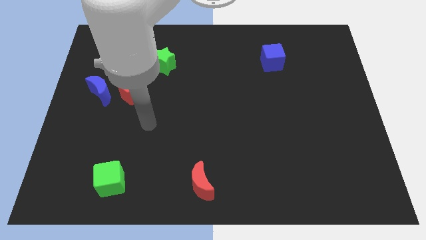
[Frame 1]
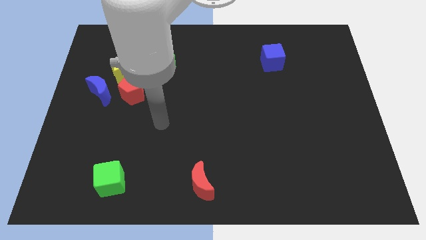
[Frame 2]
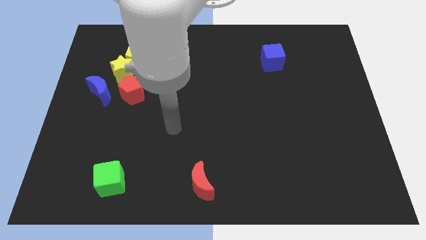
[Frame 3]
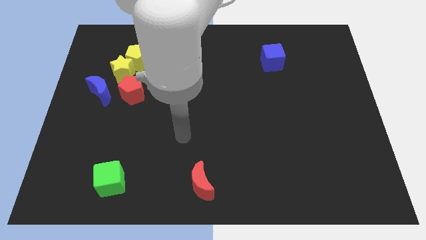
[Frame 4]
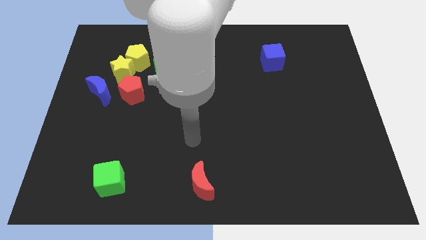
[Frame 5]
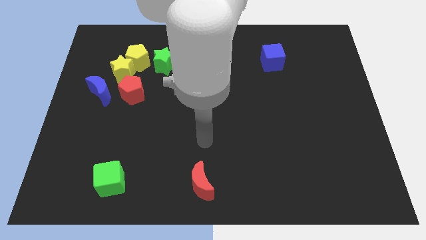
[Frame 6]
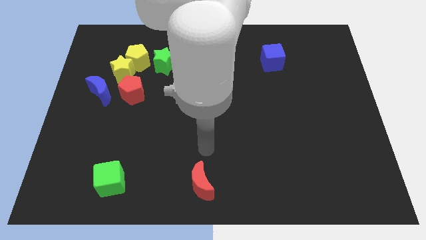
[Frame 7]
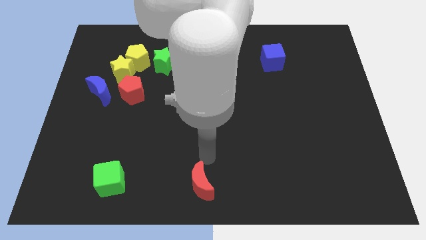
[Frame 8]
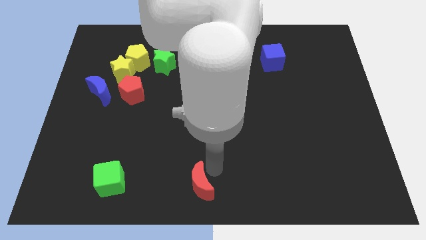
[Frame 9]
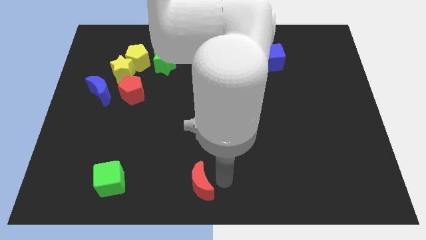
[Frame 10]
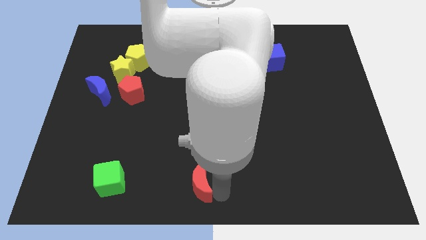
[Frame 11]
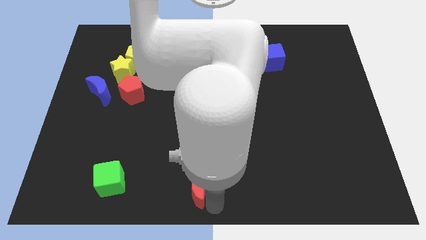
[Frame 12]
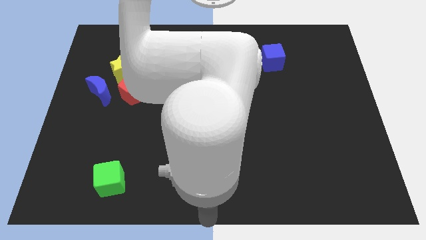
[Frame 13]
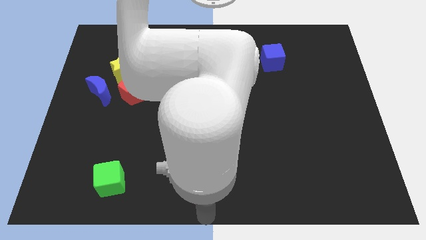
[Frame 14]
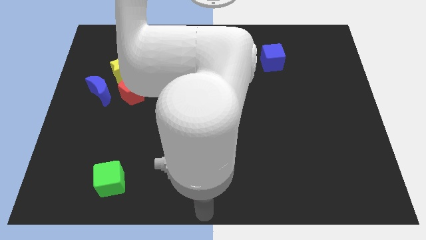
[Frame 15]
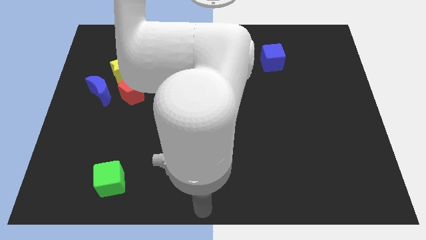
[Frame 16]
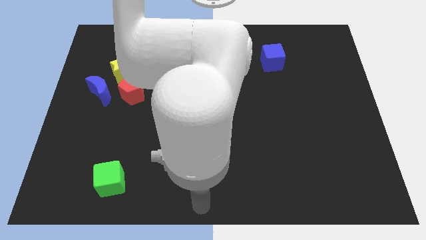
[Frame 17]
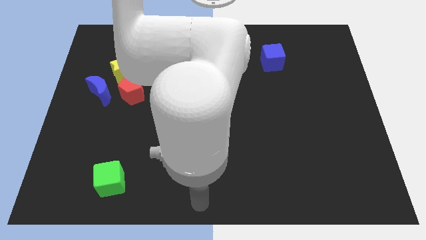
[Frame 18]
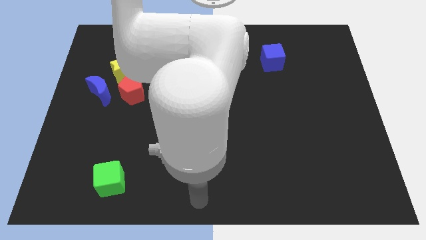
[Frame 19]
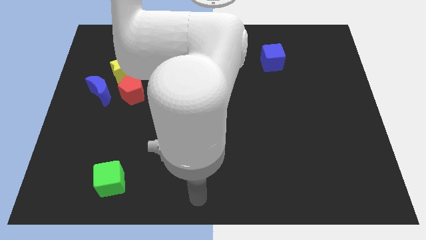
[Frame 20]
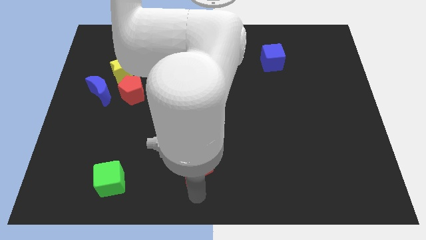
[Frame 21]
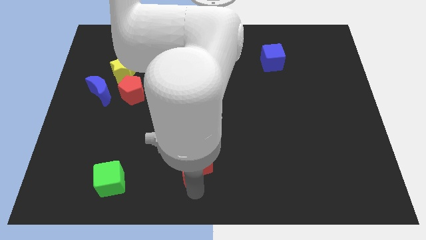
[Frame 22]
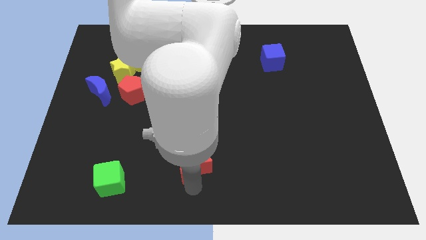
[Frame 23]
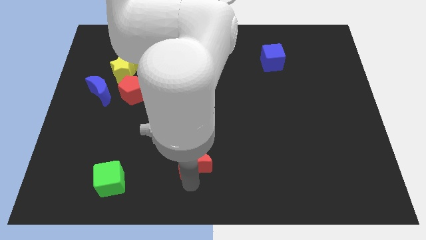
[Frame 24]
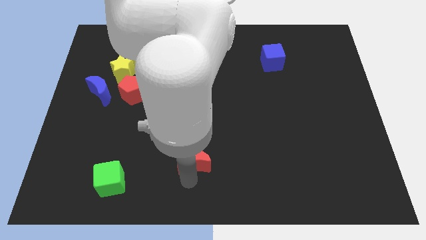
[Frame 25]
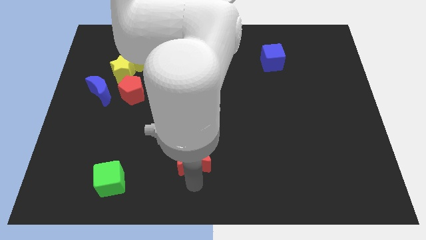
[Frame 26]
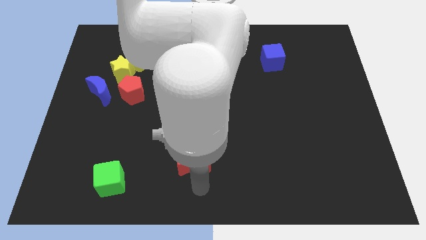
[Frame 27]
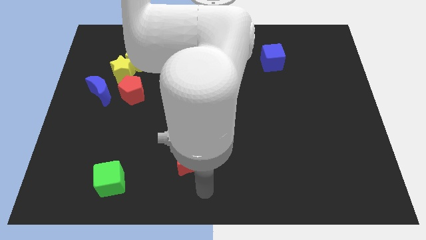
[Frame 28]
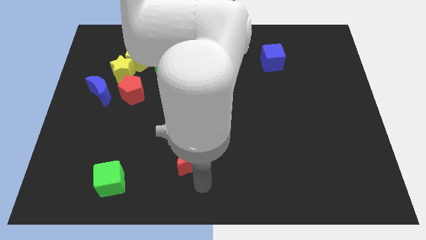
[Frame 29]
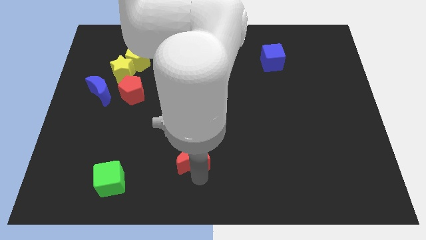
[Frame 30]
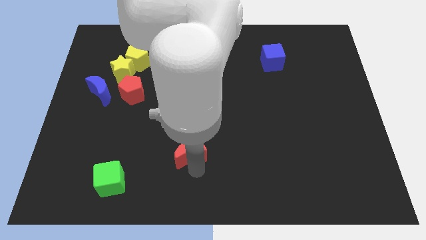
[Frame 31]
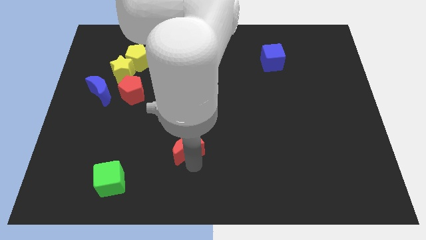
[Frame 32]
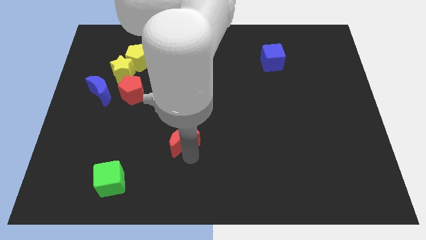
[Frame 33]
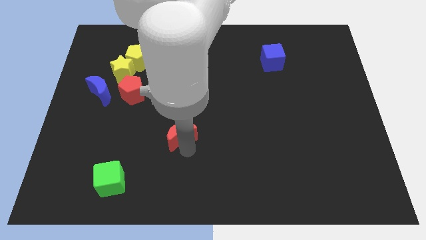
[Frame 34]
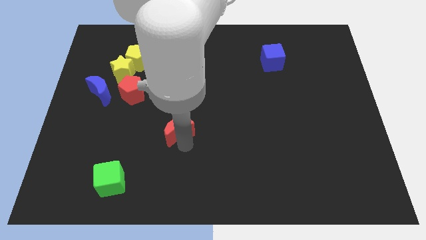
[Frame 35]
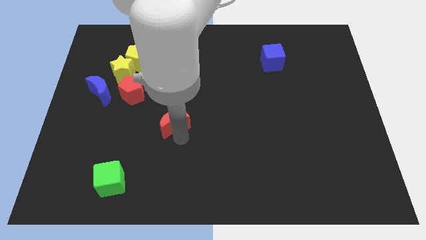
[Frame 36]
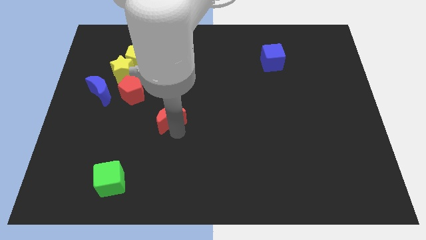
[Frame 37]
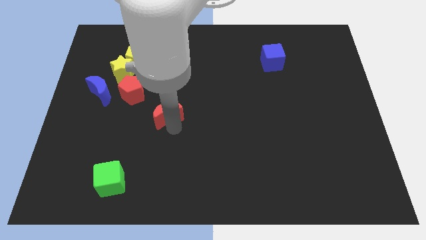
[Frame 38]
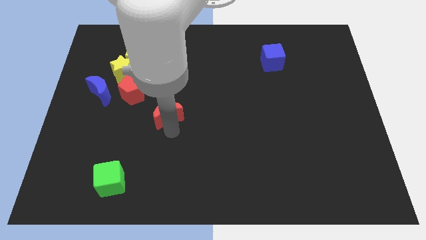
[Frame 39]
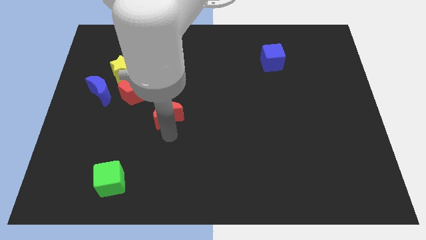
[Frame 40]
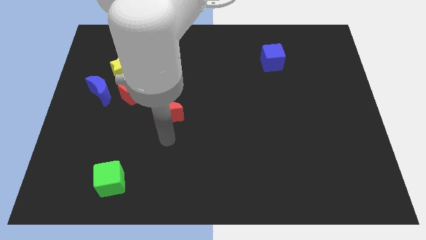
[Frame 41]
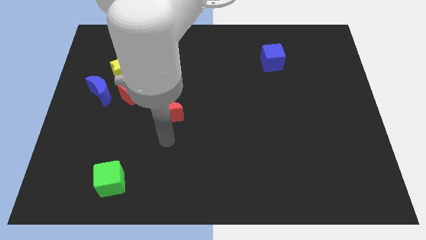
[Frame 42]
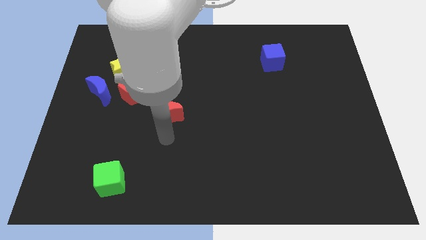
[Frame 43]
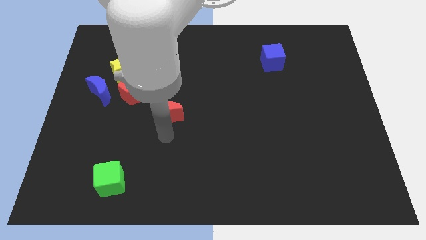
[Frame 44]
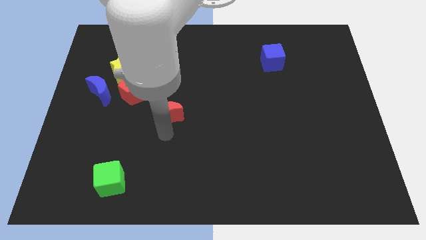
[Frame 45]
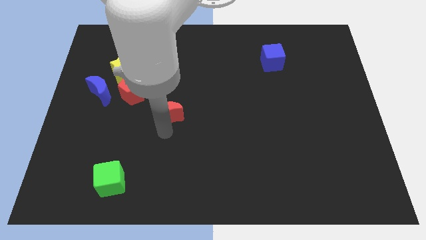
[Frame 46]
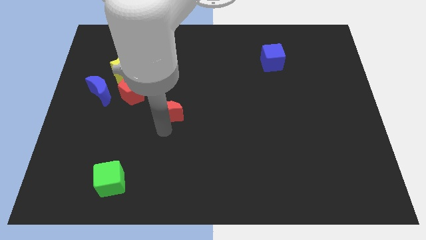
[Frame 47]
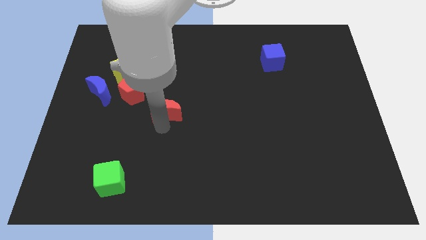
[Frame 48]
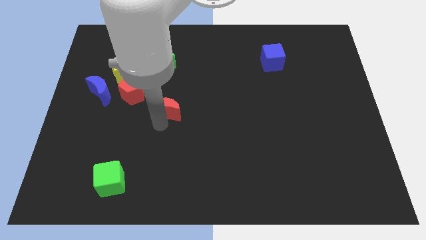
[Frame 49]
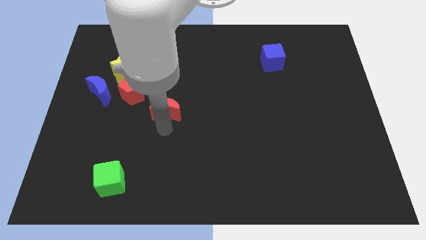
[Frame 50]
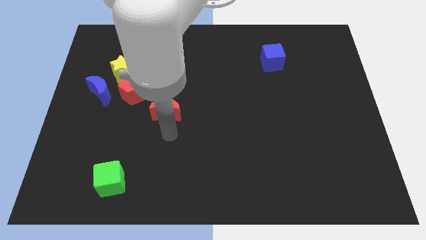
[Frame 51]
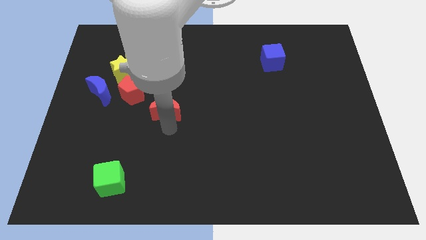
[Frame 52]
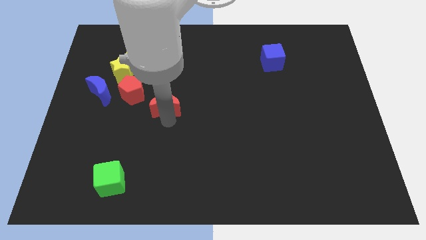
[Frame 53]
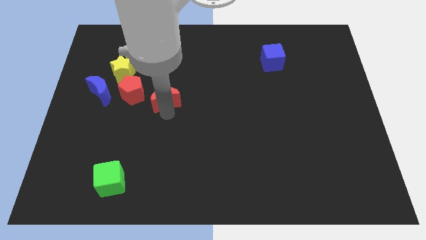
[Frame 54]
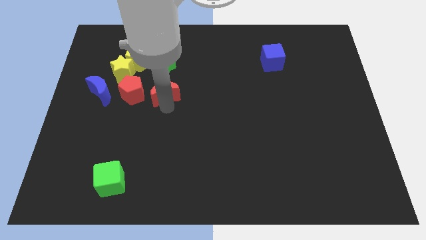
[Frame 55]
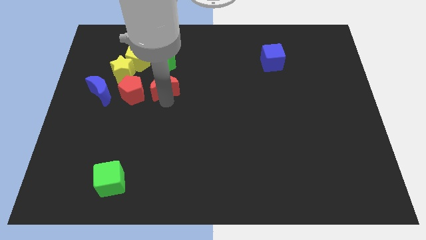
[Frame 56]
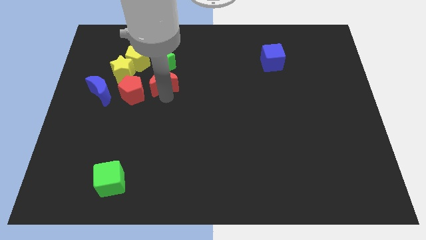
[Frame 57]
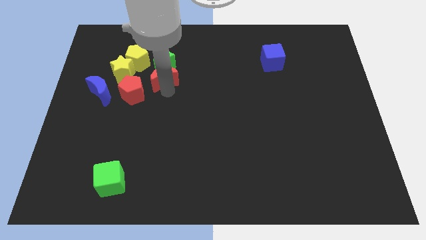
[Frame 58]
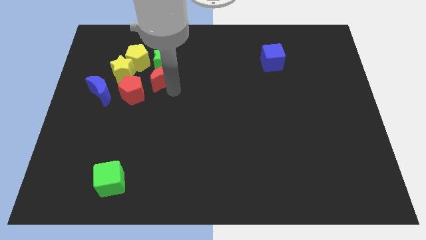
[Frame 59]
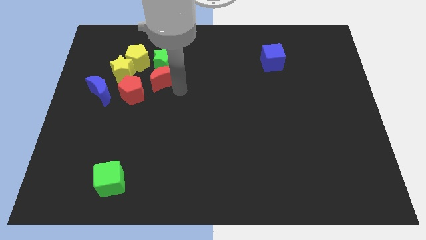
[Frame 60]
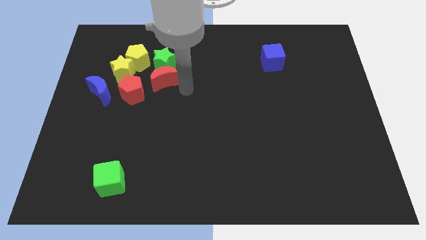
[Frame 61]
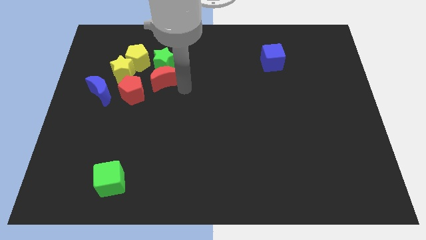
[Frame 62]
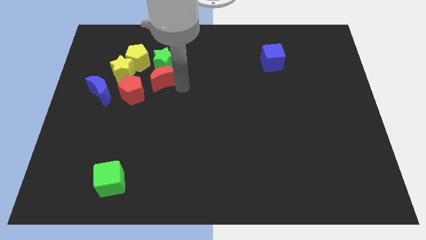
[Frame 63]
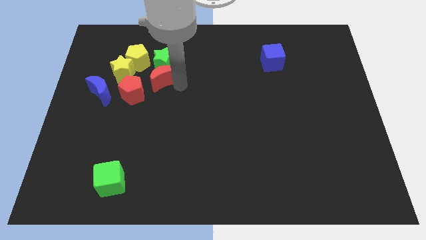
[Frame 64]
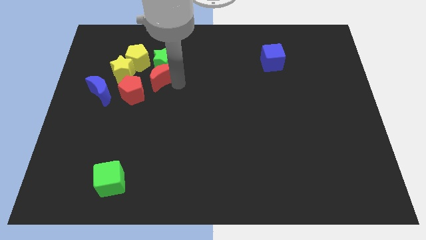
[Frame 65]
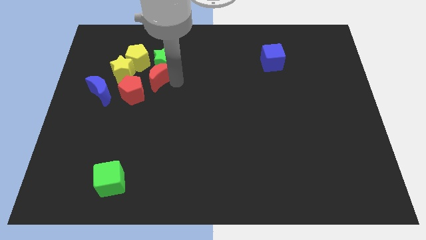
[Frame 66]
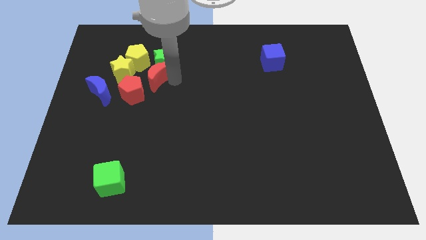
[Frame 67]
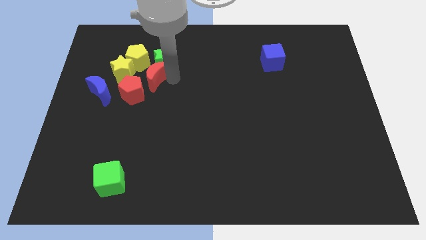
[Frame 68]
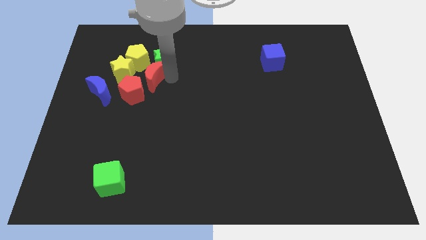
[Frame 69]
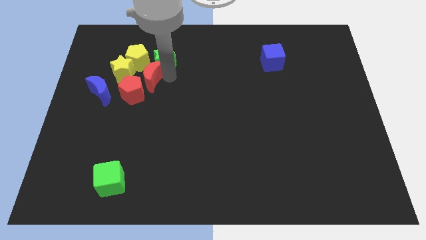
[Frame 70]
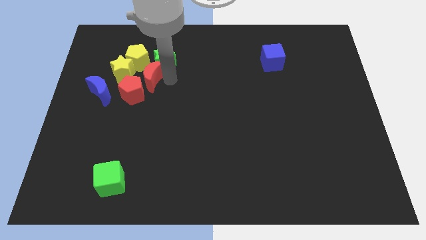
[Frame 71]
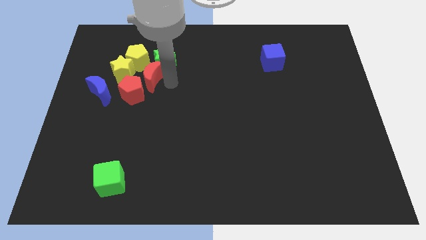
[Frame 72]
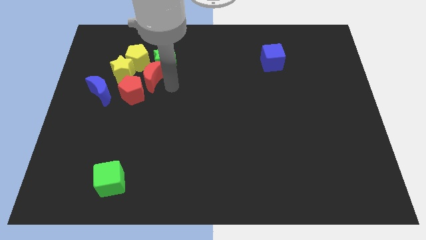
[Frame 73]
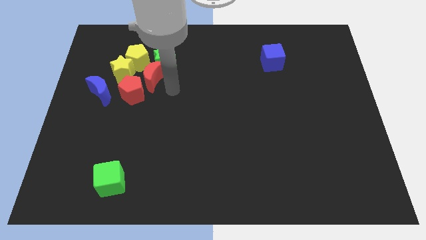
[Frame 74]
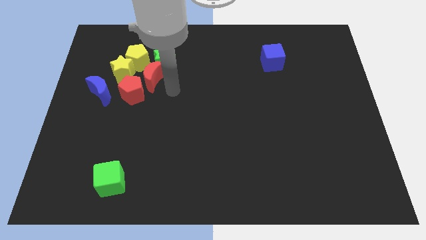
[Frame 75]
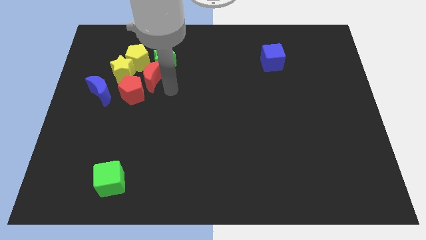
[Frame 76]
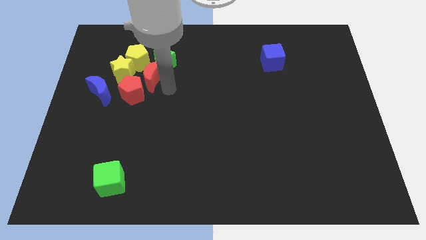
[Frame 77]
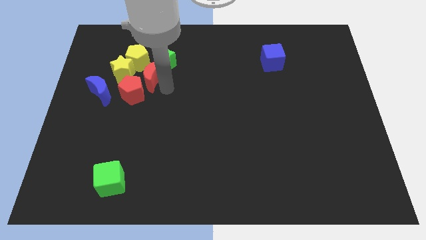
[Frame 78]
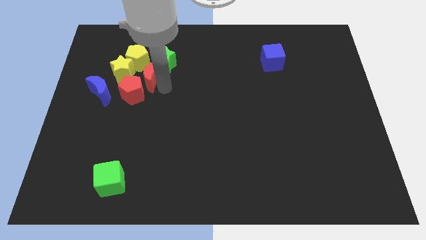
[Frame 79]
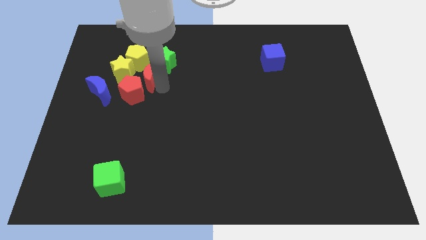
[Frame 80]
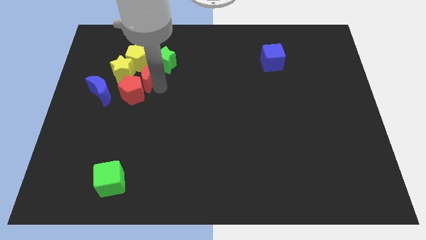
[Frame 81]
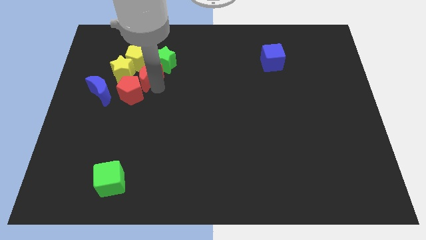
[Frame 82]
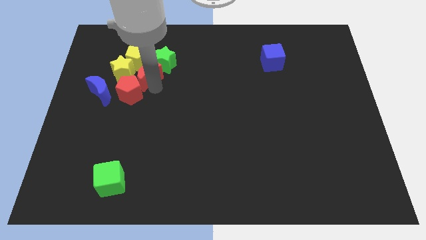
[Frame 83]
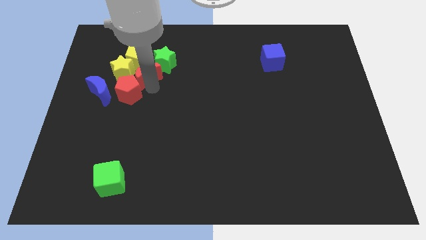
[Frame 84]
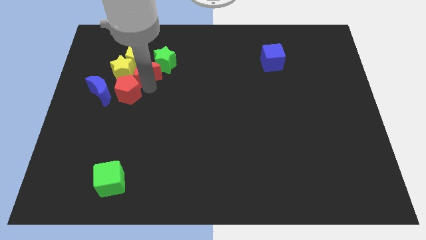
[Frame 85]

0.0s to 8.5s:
slide the red moon next to the yellow pentagon
